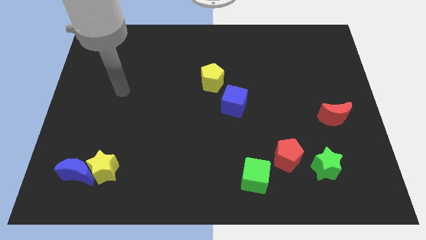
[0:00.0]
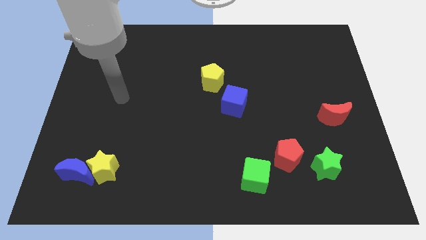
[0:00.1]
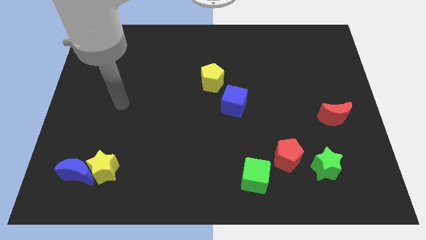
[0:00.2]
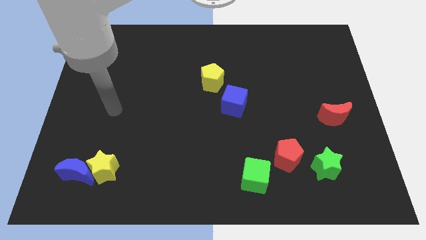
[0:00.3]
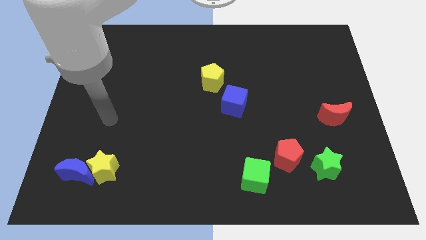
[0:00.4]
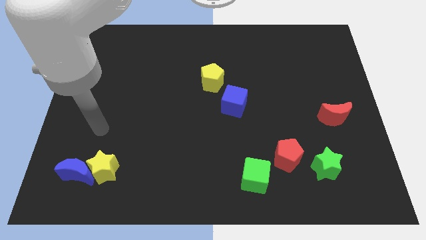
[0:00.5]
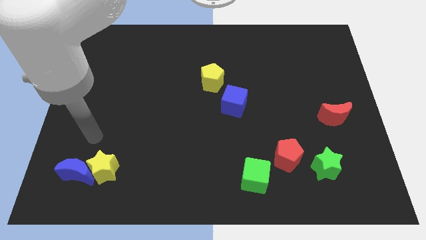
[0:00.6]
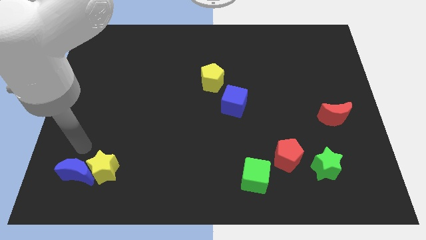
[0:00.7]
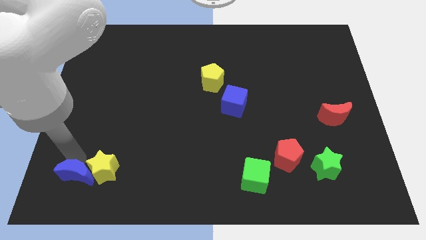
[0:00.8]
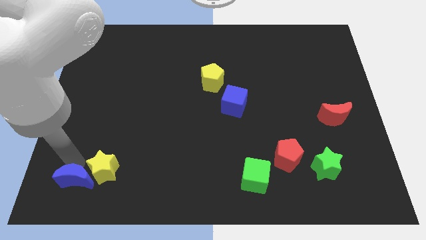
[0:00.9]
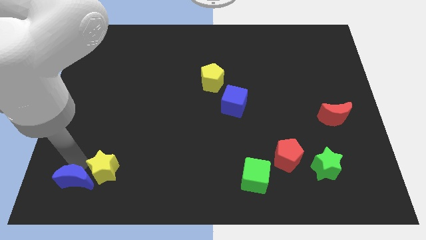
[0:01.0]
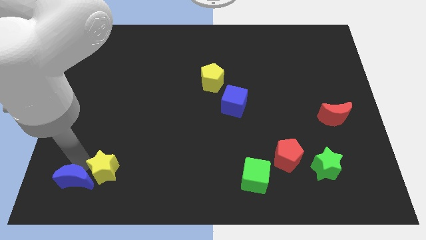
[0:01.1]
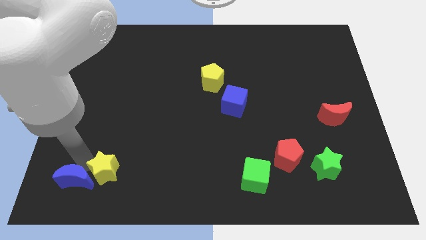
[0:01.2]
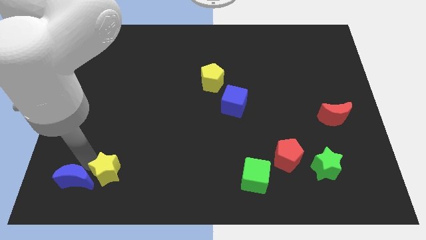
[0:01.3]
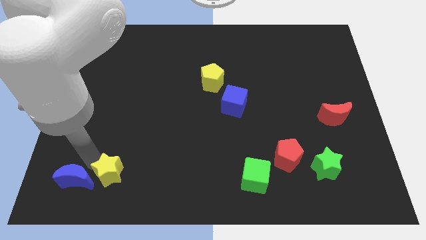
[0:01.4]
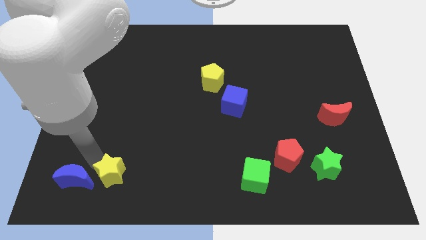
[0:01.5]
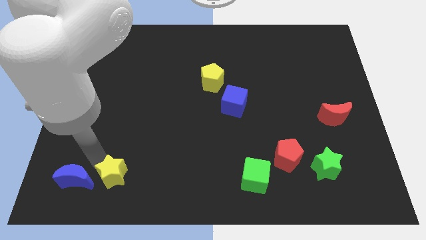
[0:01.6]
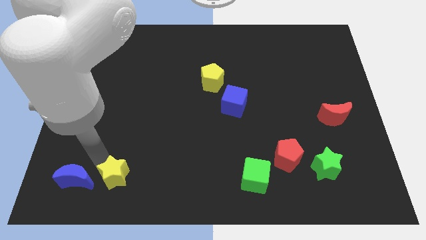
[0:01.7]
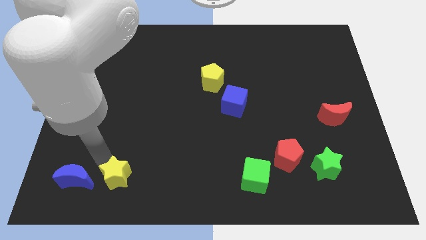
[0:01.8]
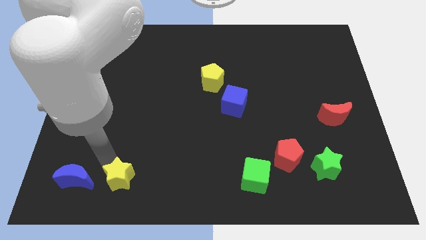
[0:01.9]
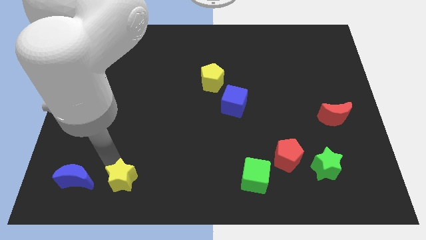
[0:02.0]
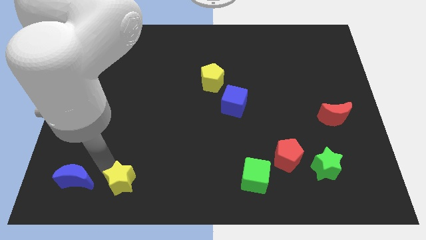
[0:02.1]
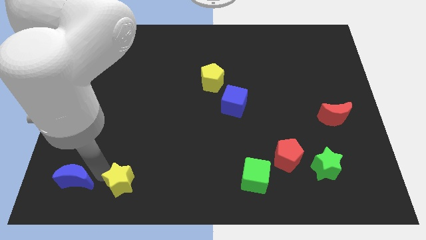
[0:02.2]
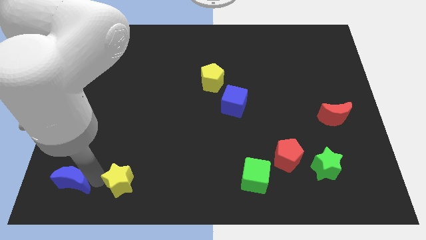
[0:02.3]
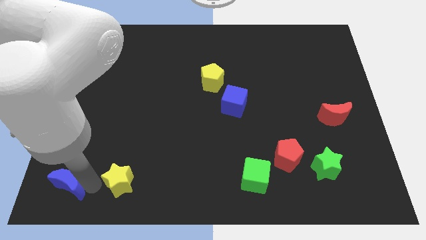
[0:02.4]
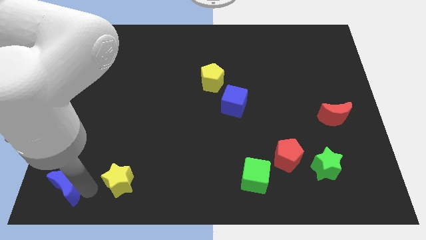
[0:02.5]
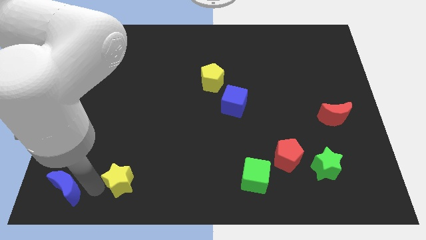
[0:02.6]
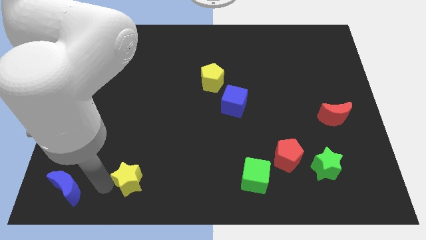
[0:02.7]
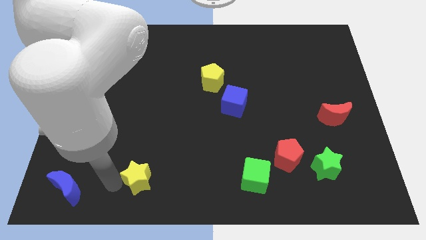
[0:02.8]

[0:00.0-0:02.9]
push the yellow star a bit to the right

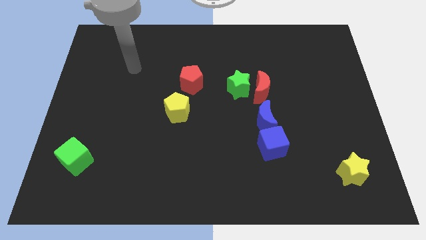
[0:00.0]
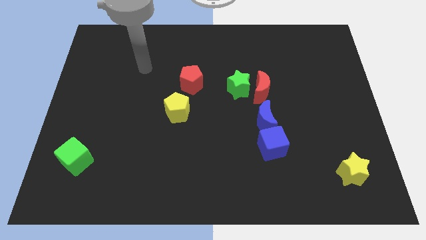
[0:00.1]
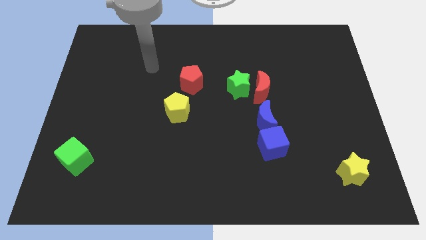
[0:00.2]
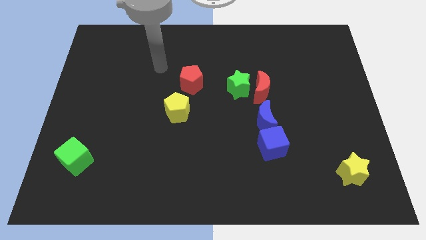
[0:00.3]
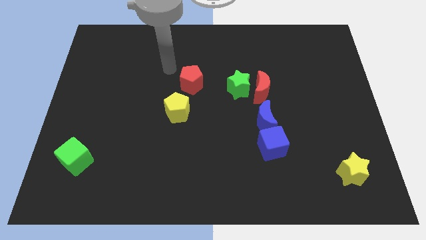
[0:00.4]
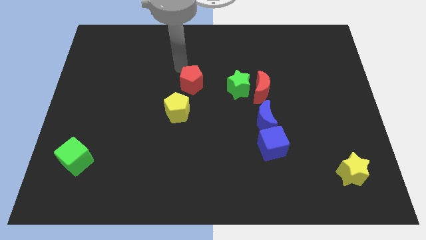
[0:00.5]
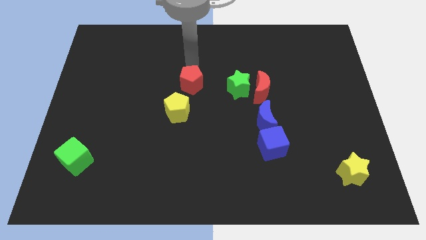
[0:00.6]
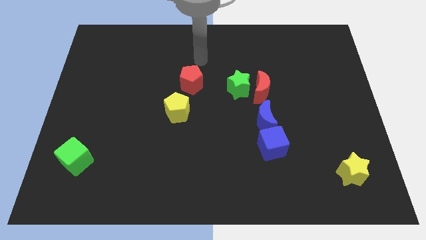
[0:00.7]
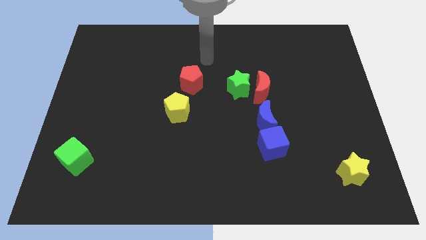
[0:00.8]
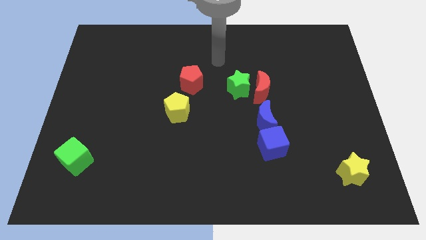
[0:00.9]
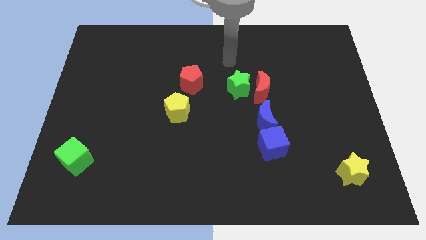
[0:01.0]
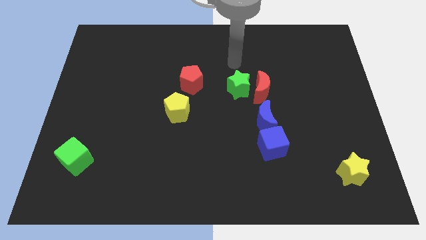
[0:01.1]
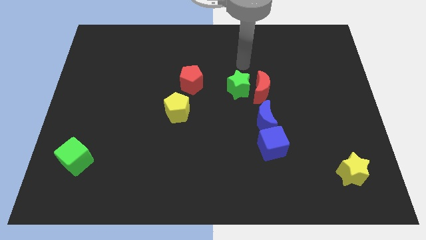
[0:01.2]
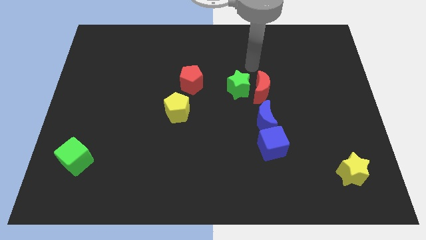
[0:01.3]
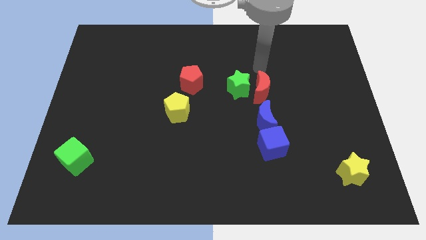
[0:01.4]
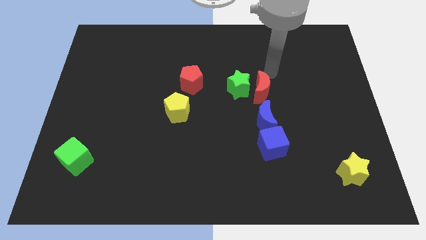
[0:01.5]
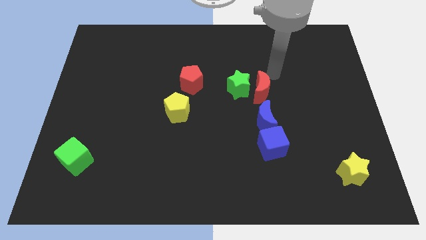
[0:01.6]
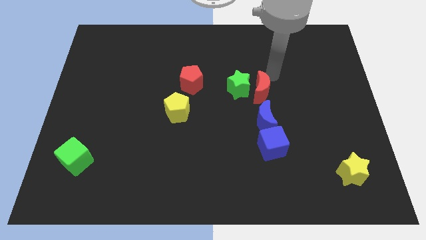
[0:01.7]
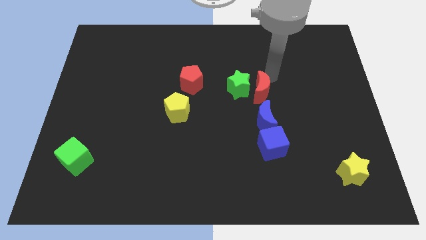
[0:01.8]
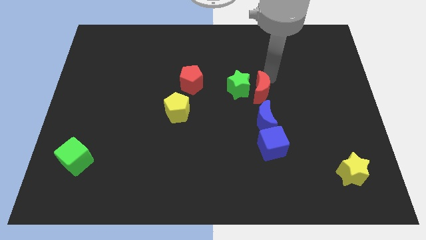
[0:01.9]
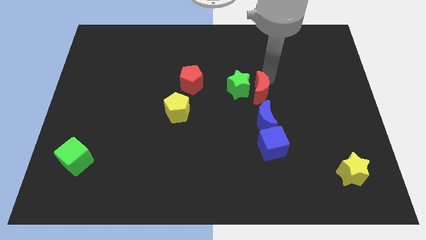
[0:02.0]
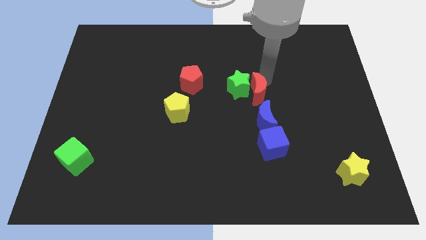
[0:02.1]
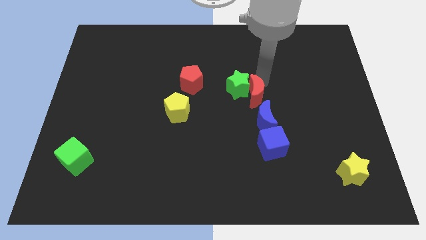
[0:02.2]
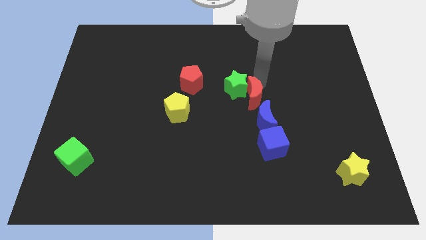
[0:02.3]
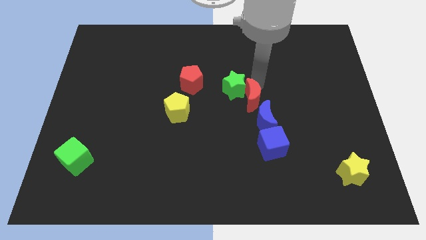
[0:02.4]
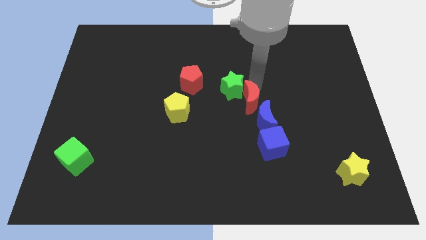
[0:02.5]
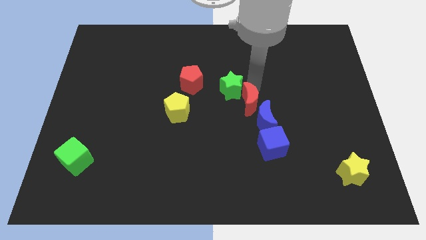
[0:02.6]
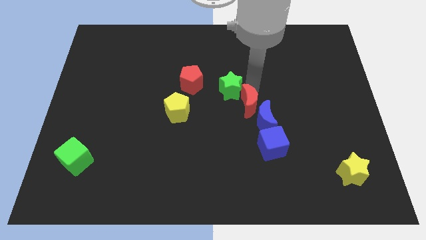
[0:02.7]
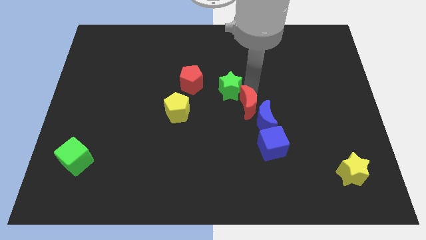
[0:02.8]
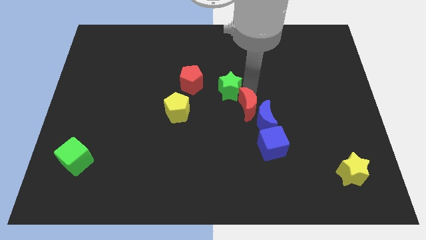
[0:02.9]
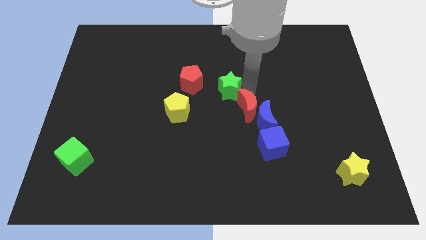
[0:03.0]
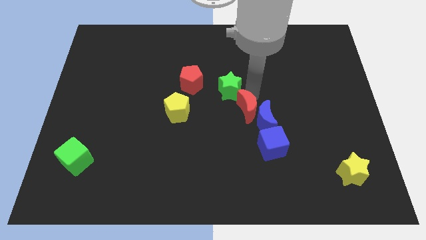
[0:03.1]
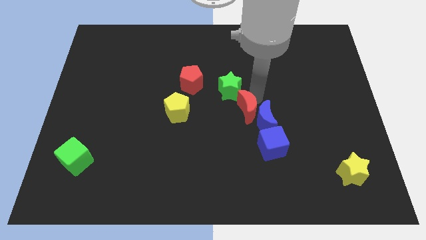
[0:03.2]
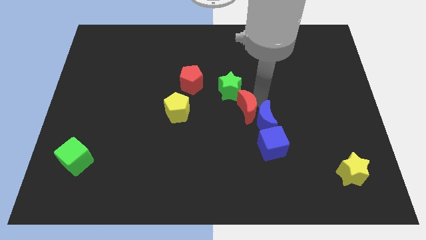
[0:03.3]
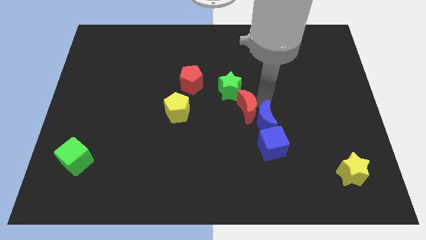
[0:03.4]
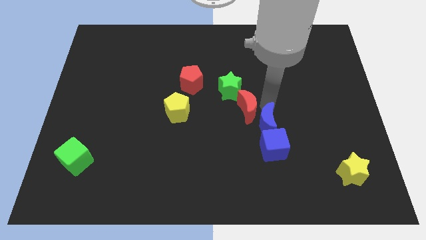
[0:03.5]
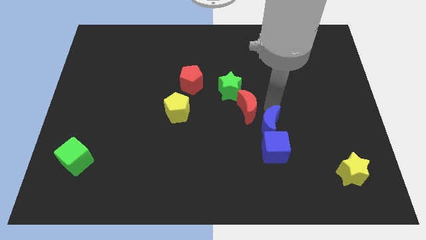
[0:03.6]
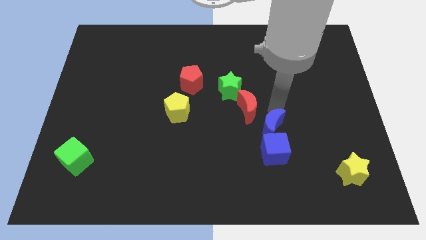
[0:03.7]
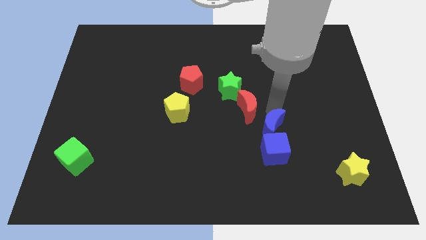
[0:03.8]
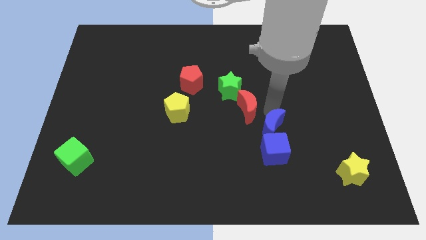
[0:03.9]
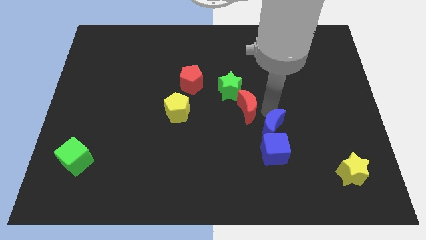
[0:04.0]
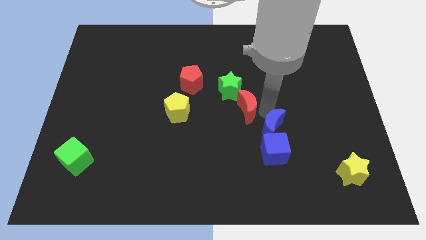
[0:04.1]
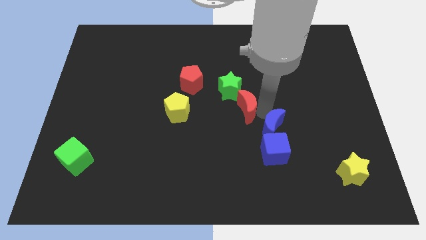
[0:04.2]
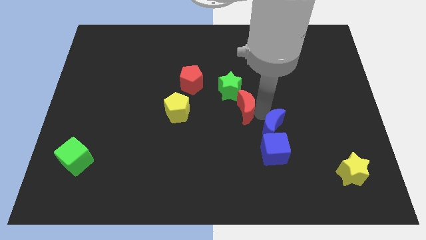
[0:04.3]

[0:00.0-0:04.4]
move the red moon slightly downwards and left

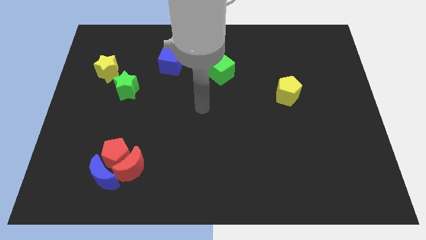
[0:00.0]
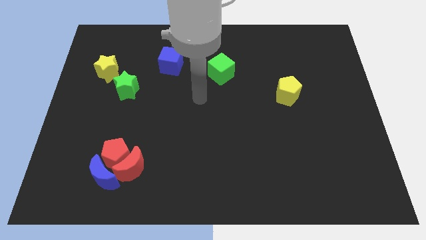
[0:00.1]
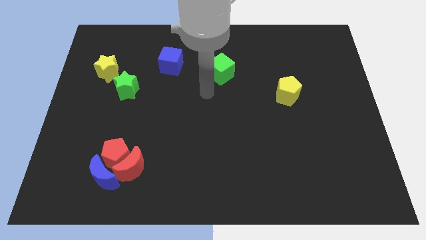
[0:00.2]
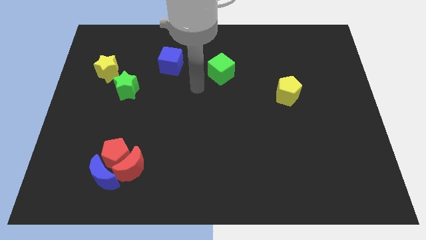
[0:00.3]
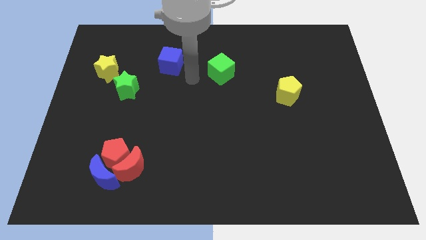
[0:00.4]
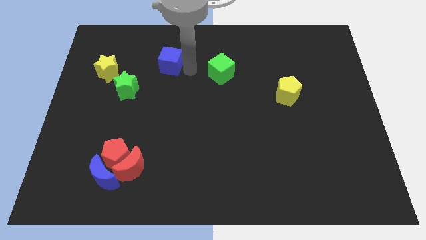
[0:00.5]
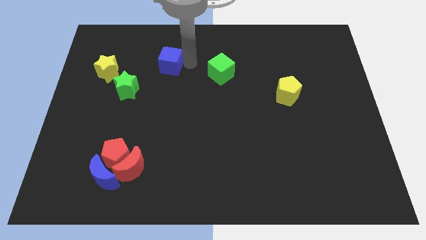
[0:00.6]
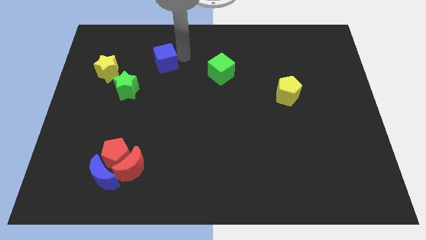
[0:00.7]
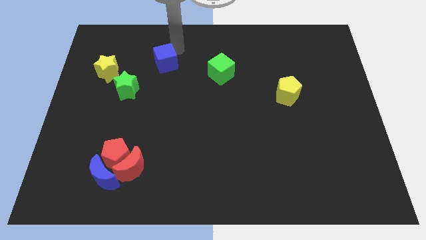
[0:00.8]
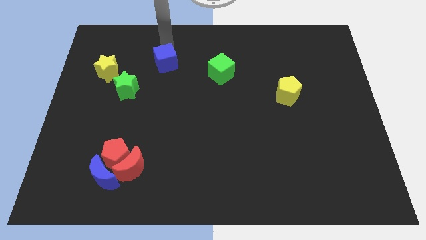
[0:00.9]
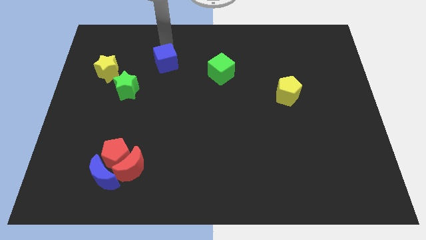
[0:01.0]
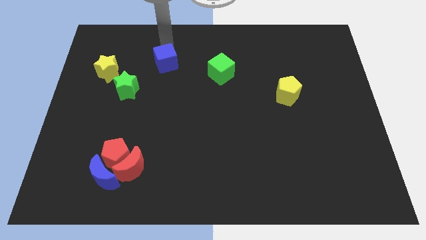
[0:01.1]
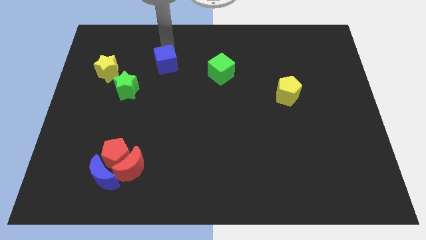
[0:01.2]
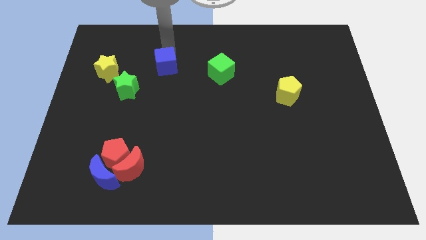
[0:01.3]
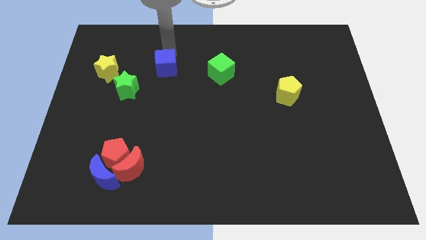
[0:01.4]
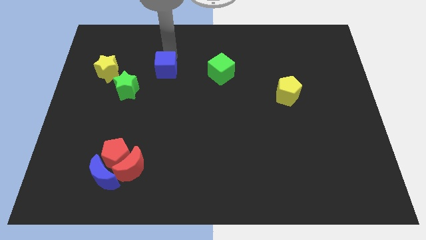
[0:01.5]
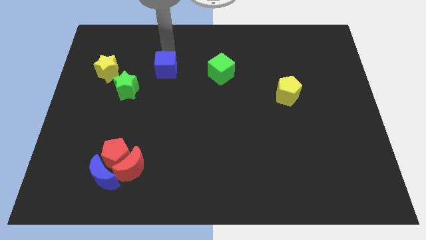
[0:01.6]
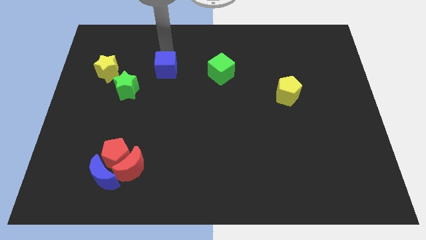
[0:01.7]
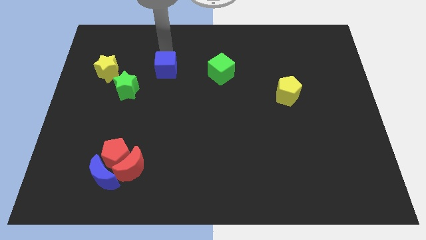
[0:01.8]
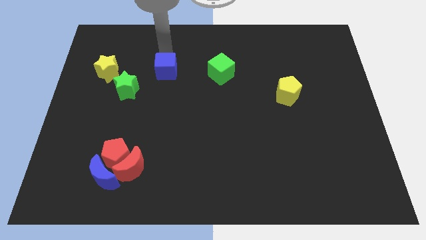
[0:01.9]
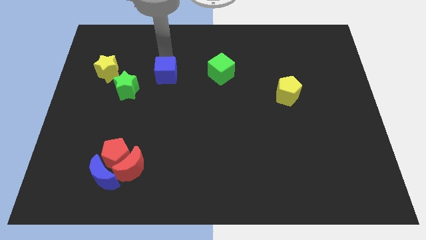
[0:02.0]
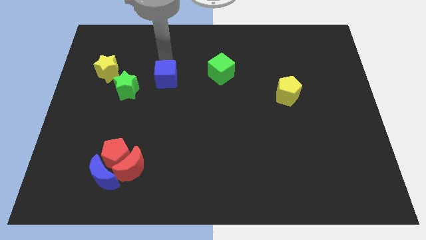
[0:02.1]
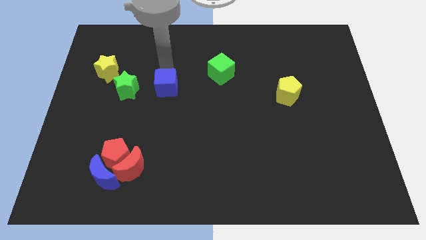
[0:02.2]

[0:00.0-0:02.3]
slide the blue cube somewhat down
